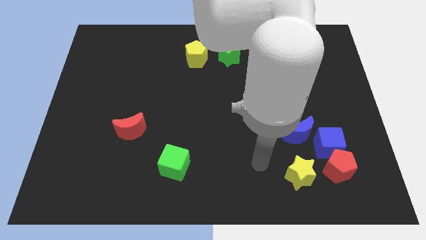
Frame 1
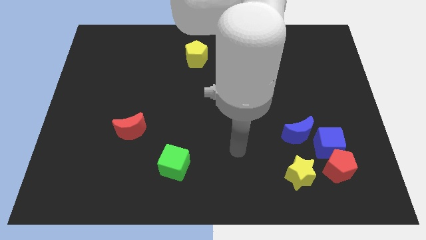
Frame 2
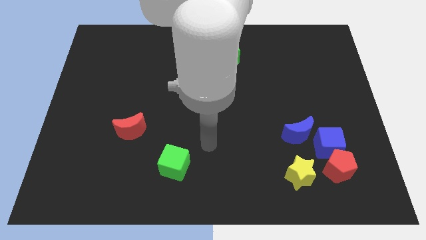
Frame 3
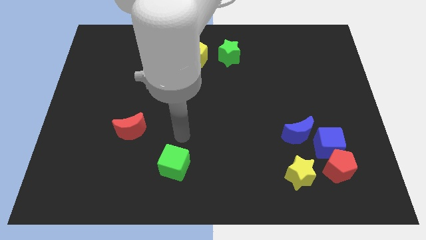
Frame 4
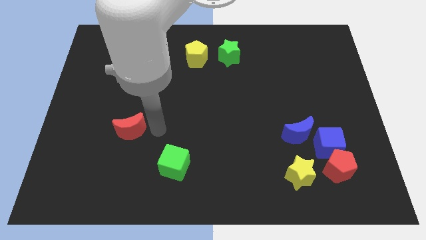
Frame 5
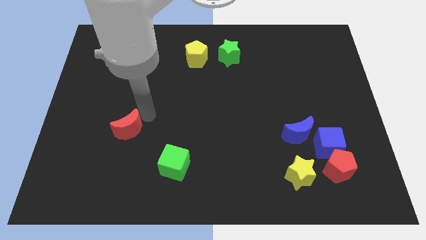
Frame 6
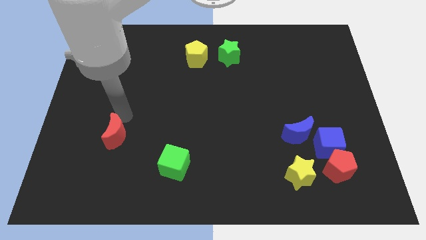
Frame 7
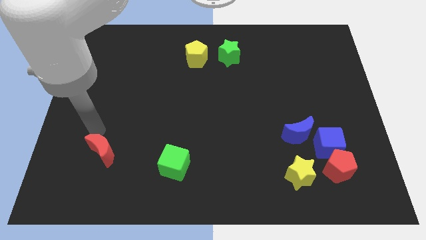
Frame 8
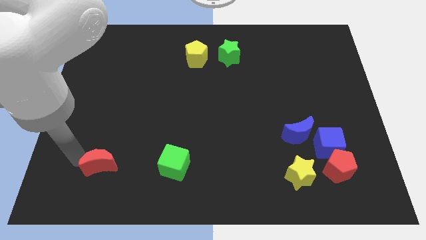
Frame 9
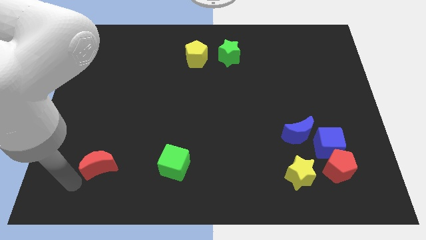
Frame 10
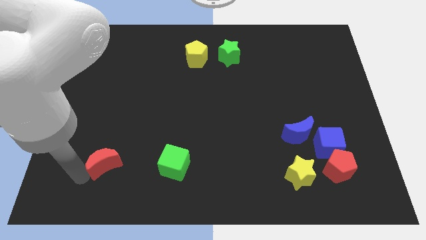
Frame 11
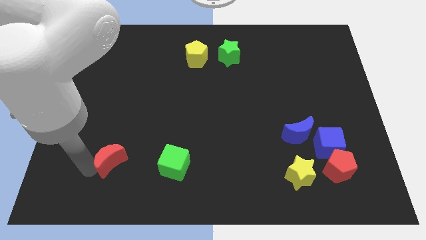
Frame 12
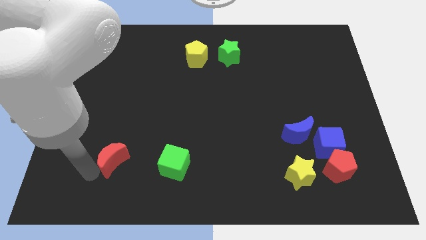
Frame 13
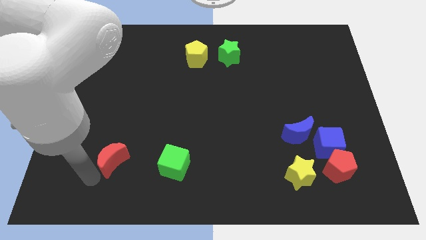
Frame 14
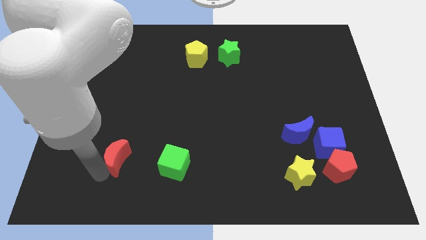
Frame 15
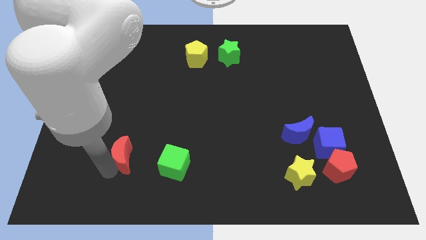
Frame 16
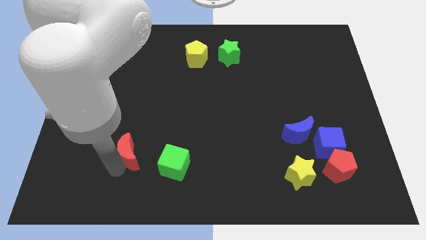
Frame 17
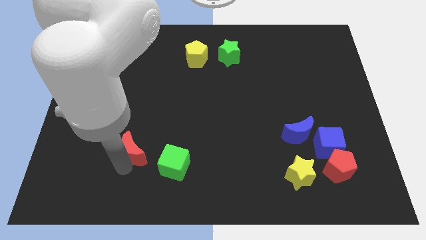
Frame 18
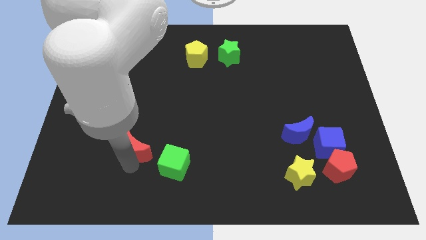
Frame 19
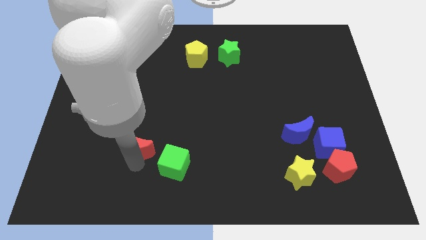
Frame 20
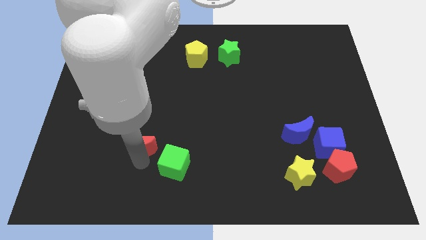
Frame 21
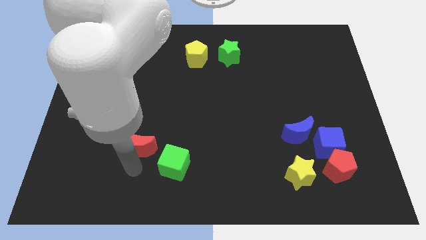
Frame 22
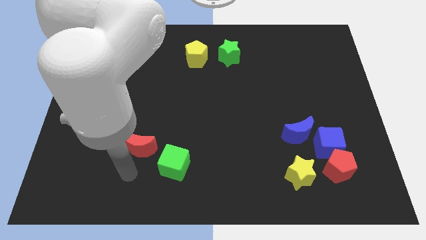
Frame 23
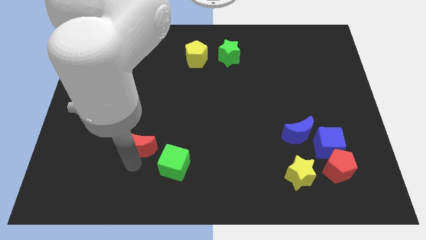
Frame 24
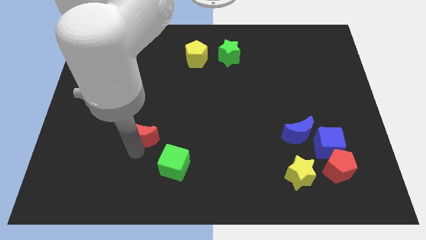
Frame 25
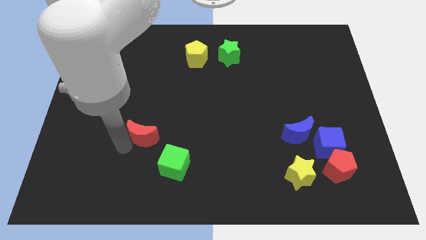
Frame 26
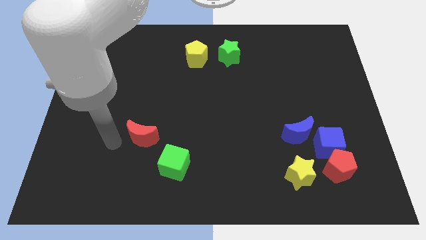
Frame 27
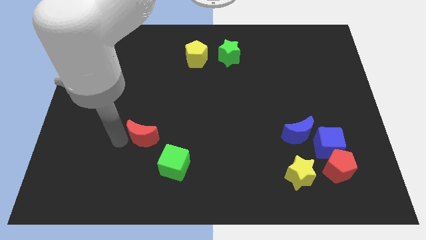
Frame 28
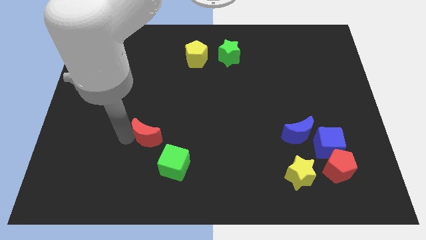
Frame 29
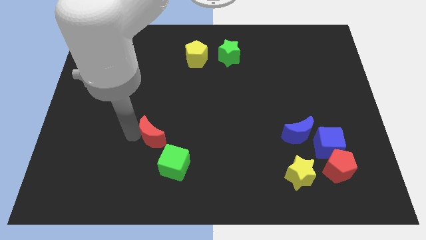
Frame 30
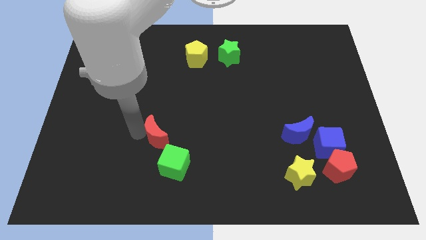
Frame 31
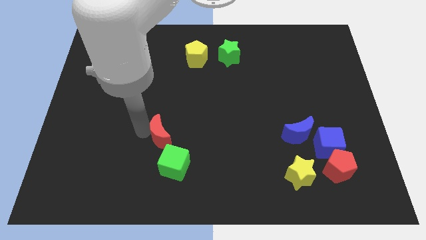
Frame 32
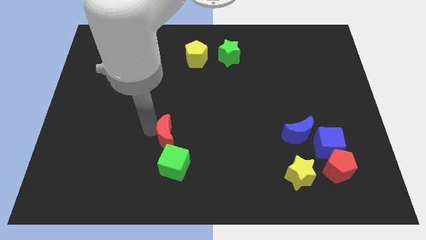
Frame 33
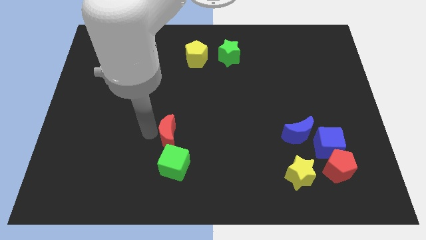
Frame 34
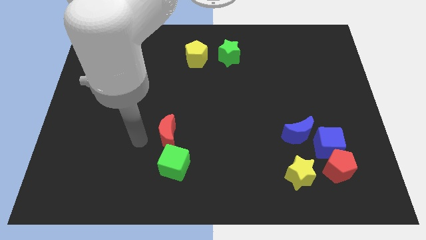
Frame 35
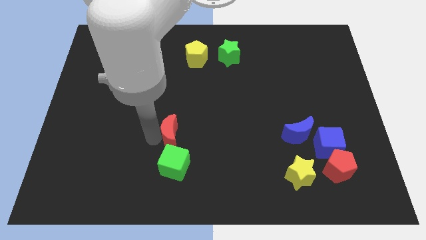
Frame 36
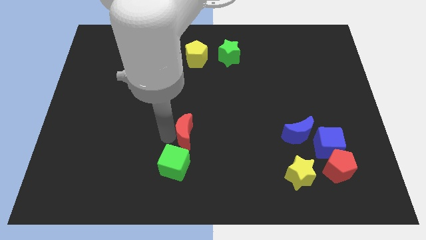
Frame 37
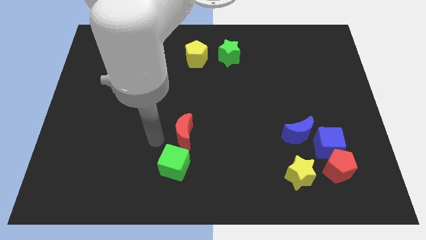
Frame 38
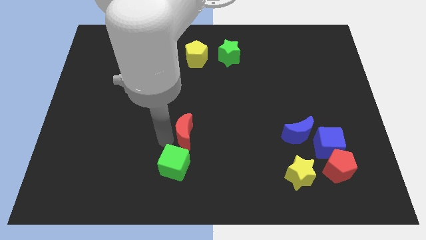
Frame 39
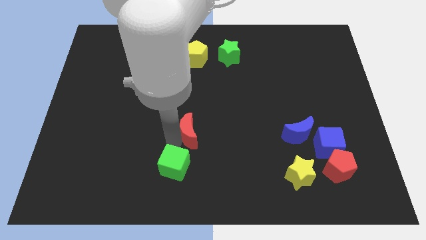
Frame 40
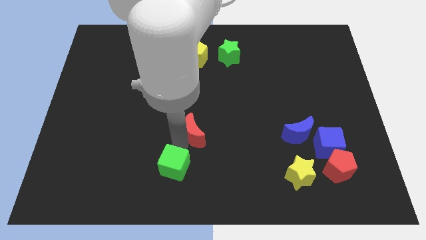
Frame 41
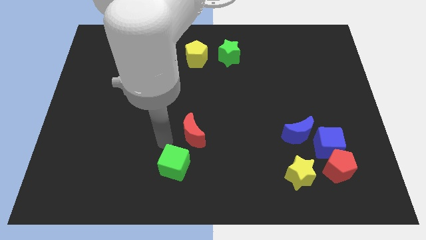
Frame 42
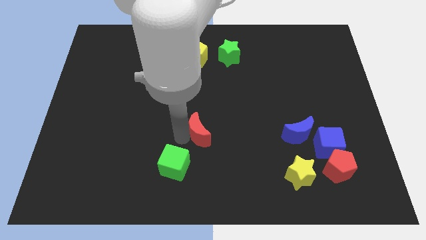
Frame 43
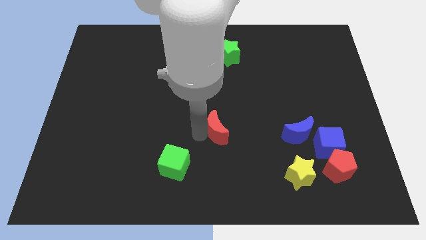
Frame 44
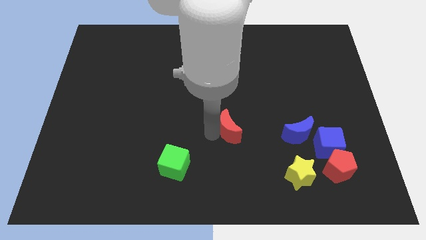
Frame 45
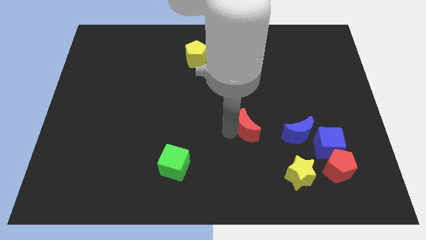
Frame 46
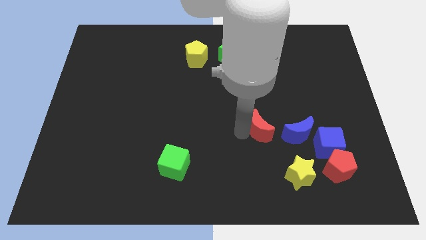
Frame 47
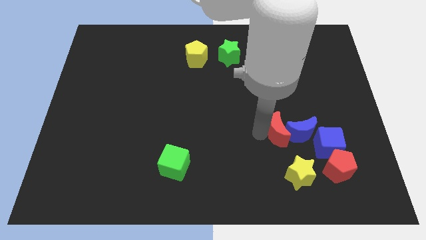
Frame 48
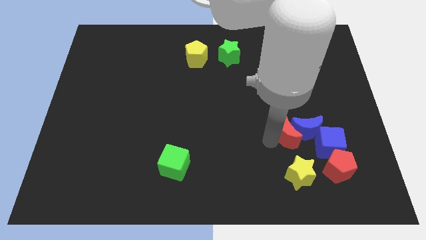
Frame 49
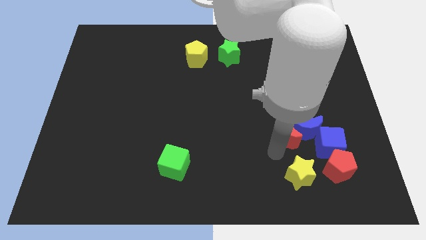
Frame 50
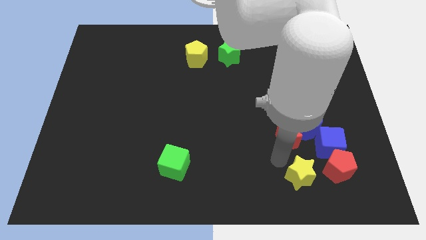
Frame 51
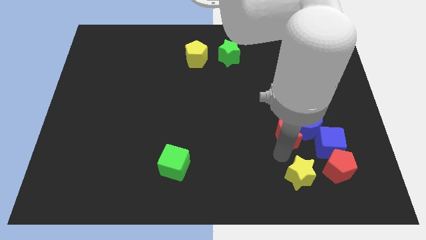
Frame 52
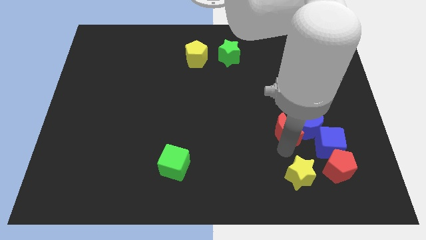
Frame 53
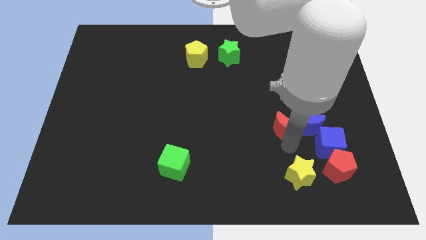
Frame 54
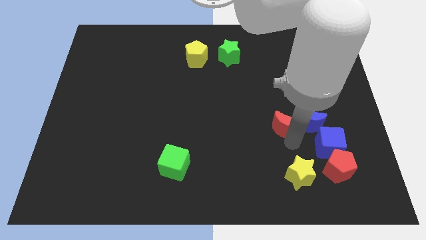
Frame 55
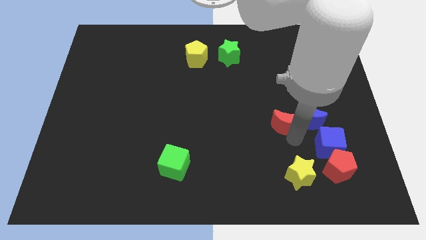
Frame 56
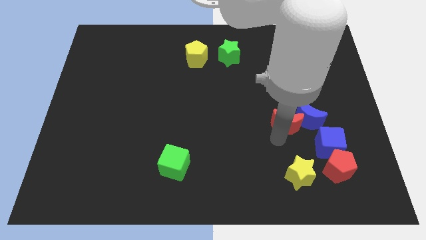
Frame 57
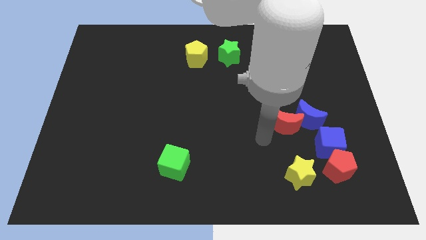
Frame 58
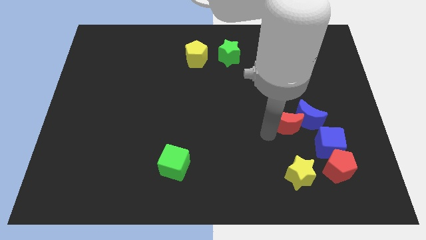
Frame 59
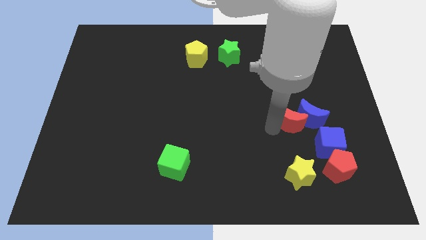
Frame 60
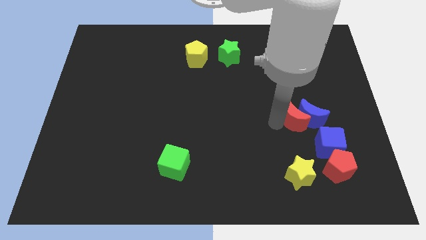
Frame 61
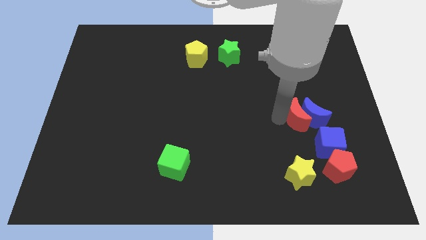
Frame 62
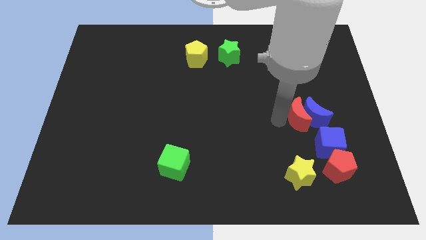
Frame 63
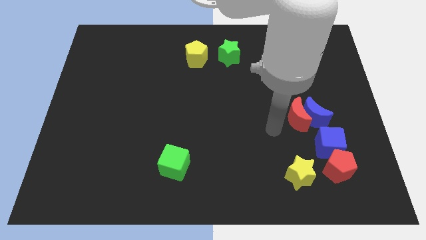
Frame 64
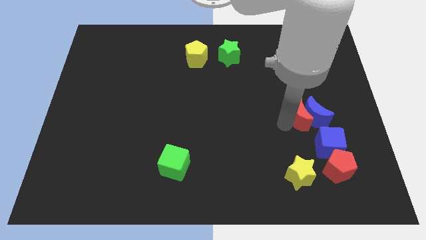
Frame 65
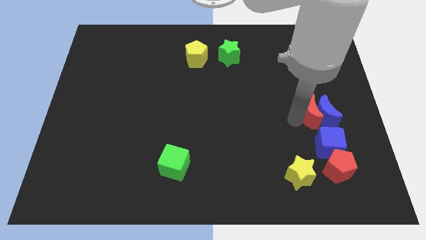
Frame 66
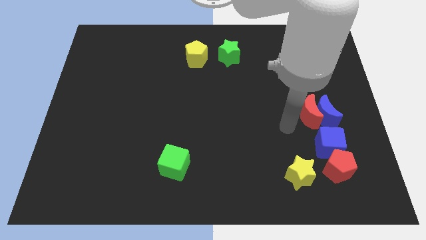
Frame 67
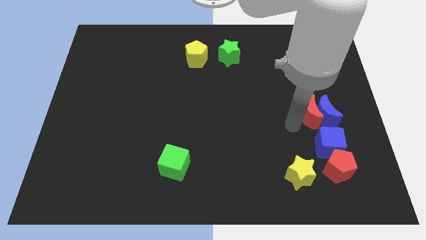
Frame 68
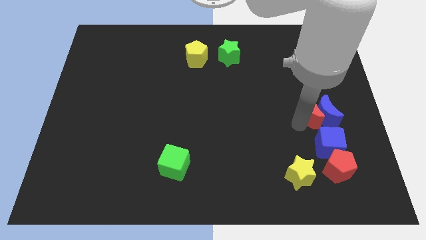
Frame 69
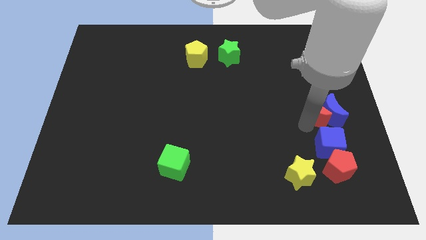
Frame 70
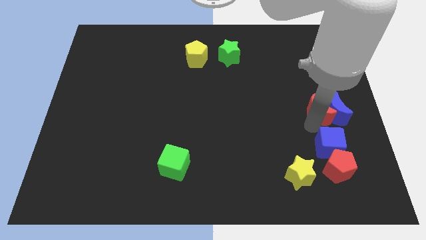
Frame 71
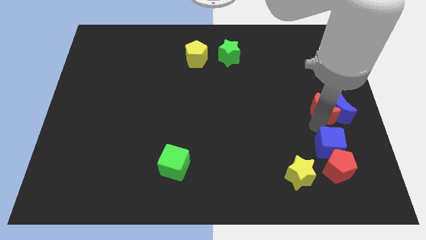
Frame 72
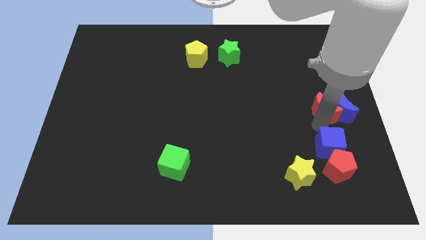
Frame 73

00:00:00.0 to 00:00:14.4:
push the red moon to the center right
